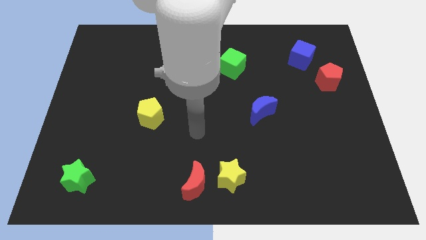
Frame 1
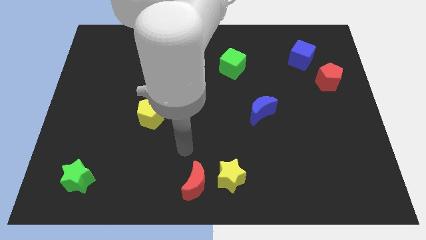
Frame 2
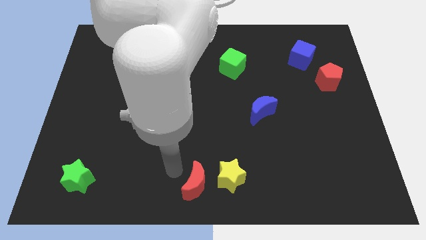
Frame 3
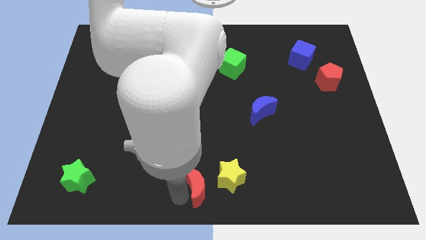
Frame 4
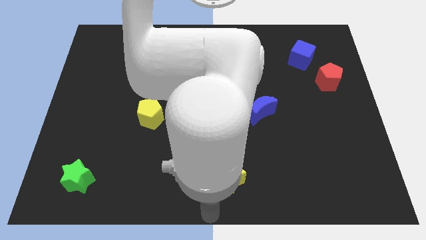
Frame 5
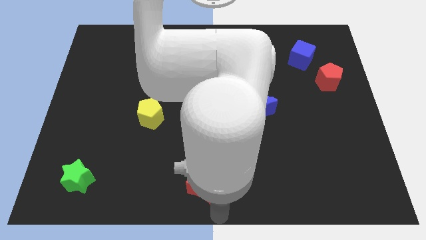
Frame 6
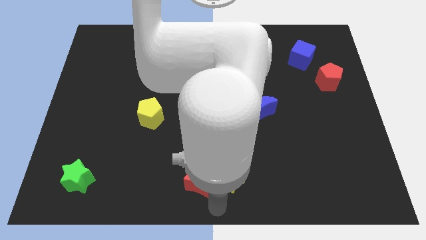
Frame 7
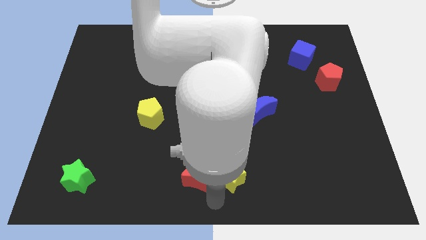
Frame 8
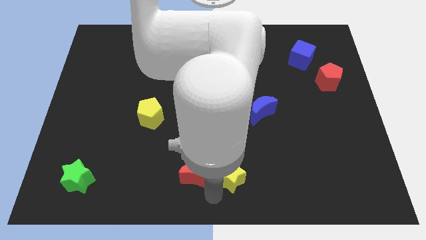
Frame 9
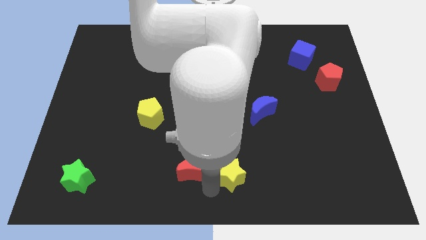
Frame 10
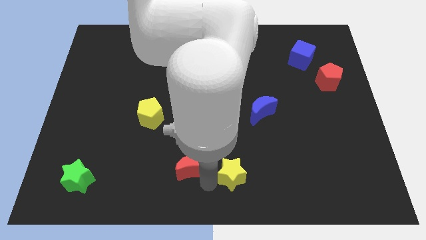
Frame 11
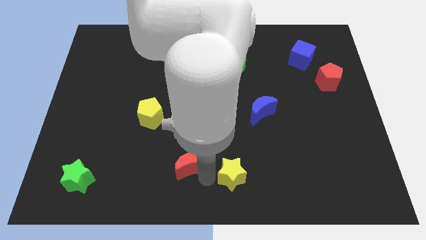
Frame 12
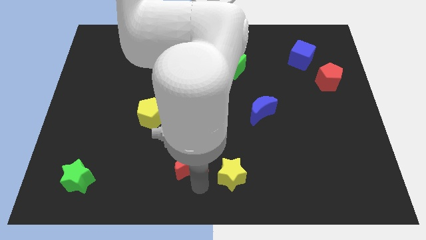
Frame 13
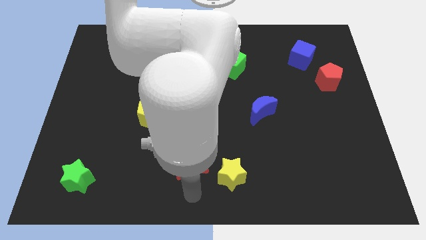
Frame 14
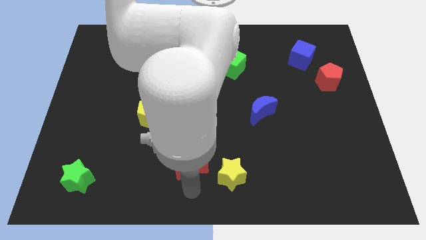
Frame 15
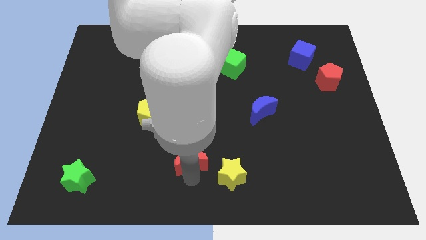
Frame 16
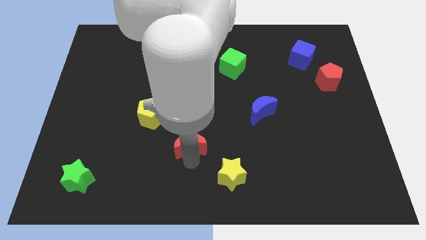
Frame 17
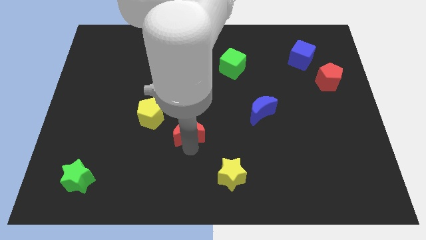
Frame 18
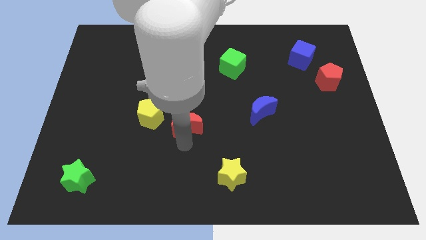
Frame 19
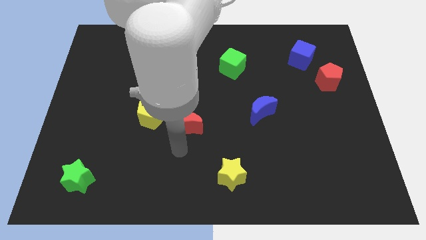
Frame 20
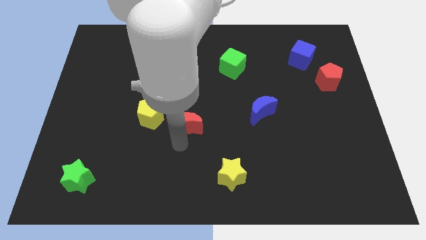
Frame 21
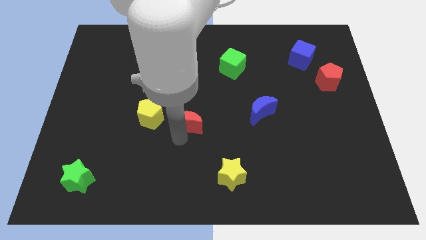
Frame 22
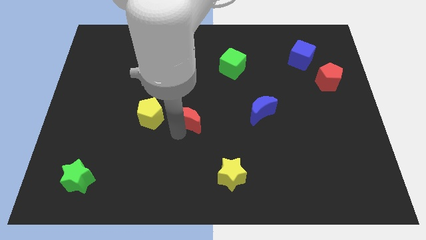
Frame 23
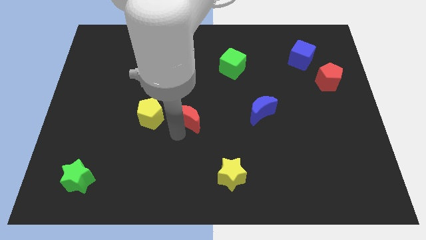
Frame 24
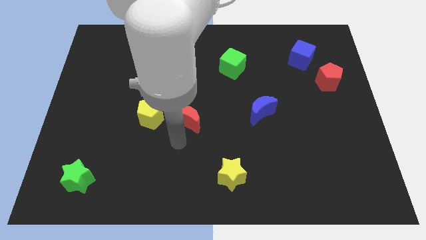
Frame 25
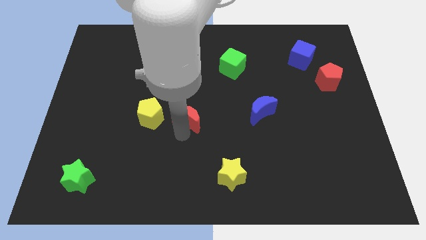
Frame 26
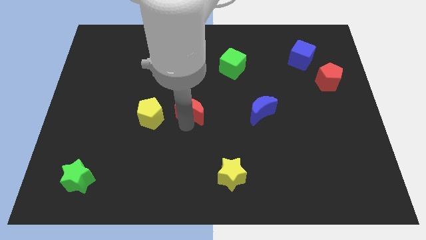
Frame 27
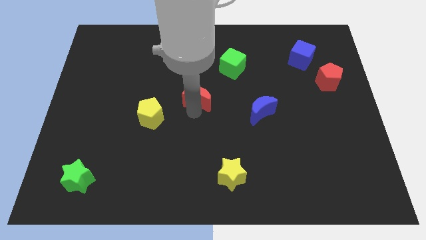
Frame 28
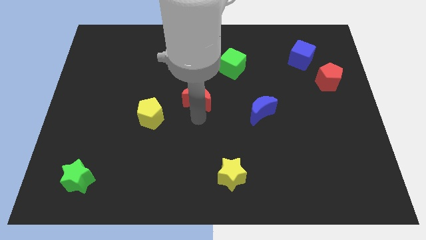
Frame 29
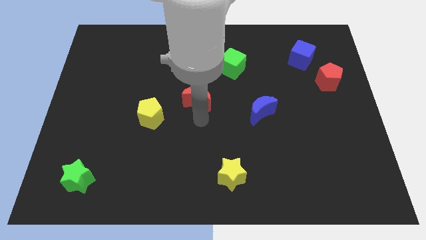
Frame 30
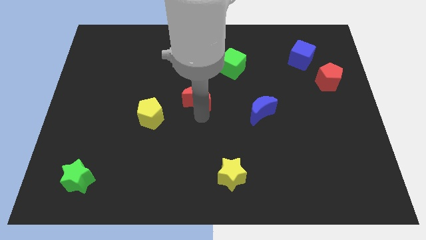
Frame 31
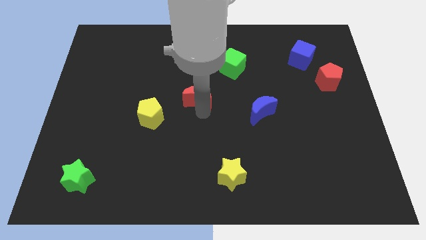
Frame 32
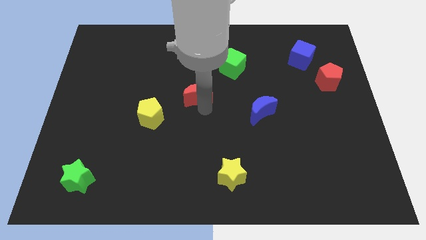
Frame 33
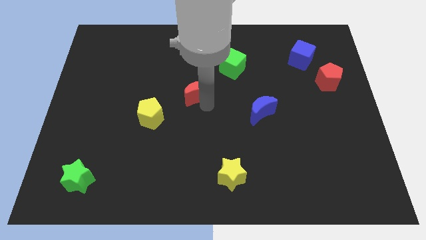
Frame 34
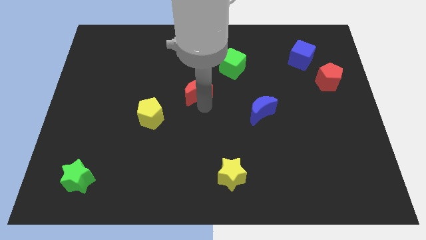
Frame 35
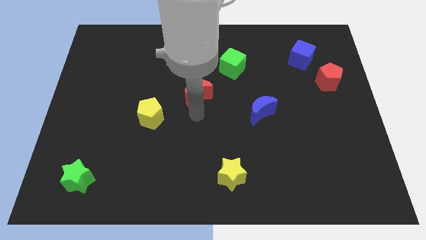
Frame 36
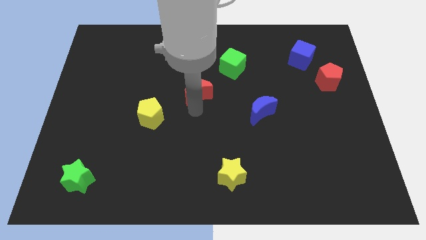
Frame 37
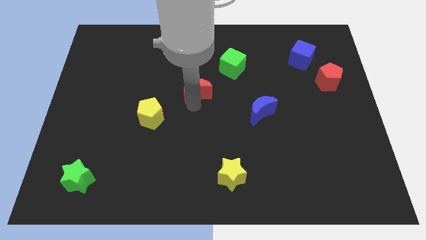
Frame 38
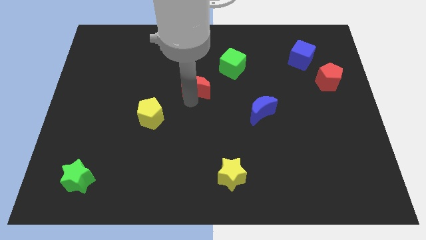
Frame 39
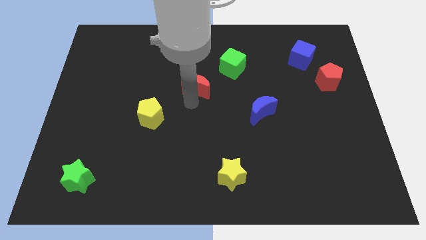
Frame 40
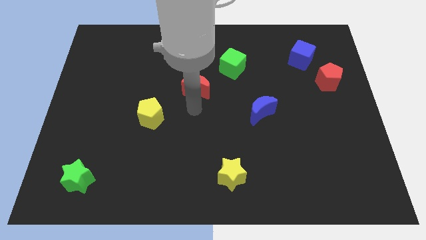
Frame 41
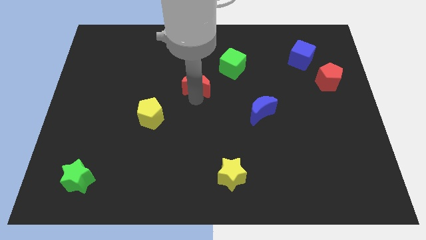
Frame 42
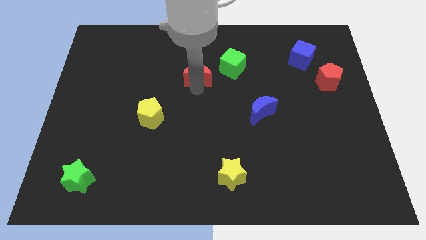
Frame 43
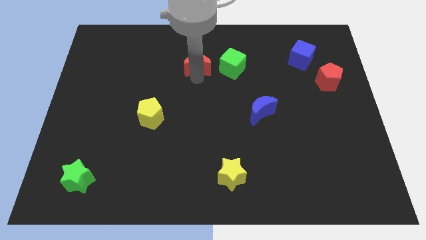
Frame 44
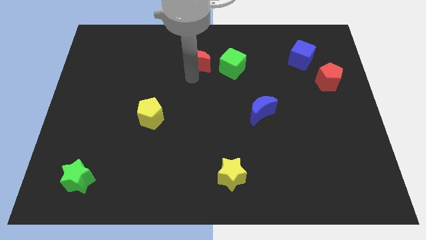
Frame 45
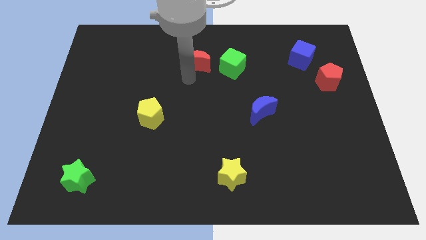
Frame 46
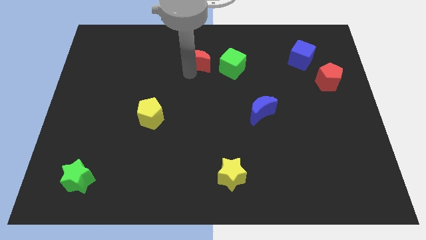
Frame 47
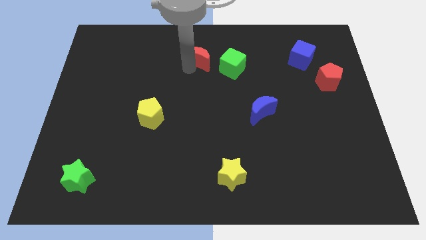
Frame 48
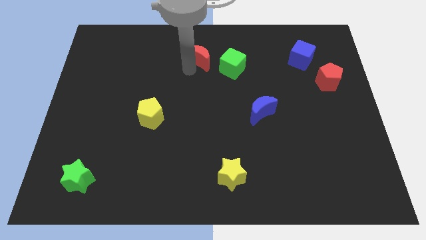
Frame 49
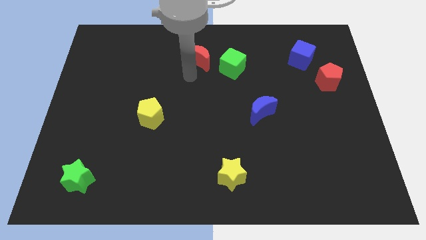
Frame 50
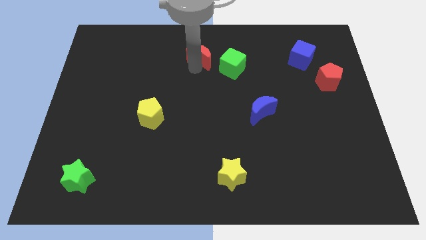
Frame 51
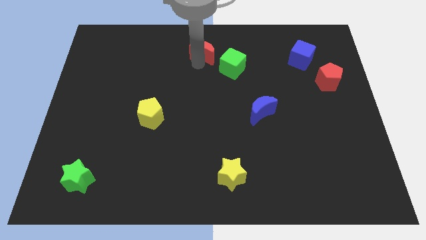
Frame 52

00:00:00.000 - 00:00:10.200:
push the red moon to the top side

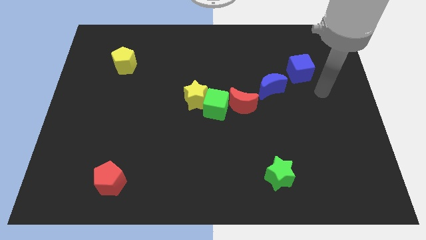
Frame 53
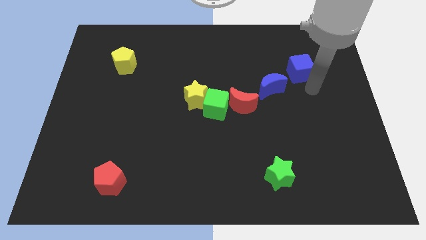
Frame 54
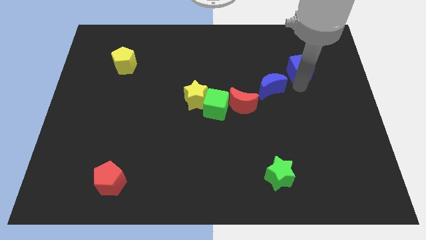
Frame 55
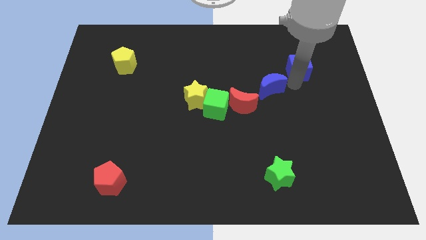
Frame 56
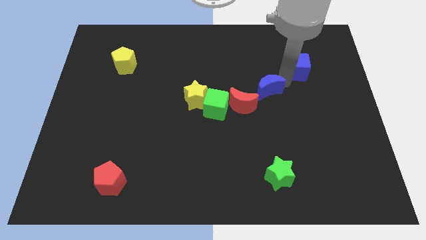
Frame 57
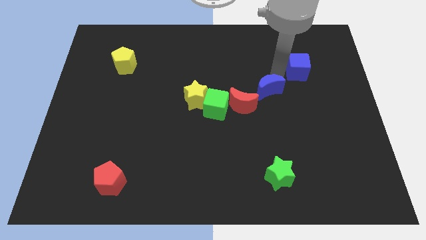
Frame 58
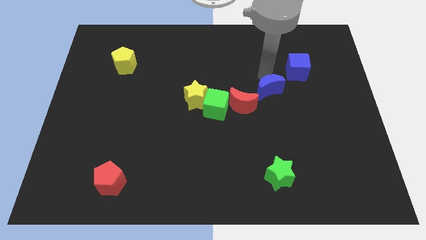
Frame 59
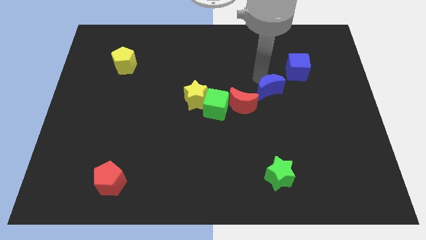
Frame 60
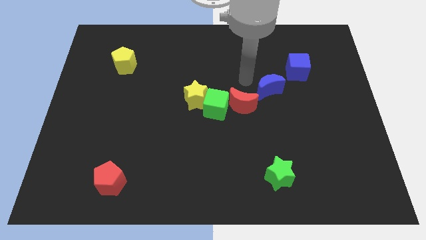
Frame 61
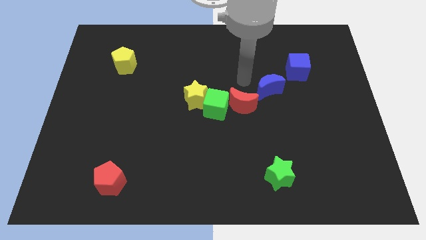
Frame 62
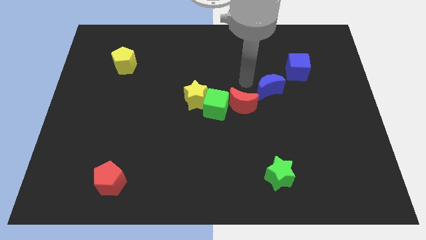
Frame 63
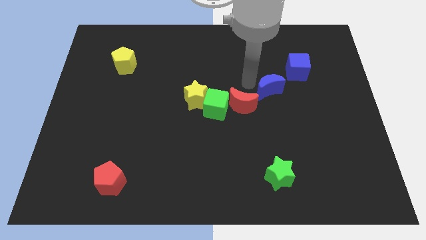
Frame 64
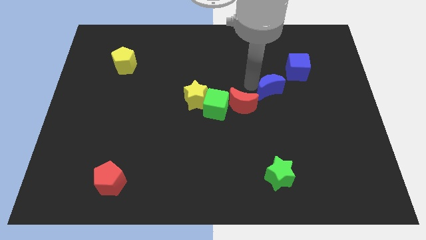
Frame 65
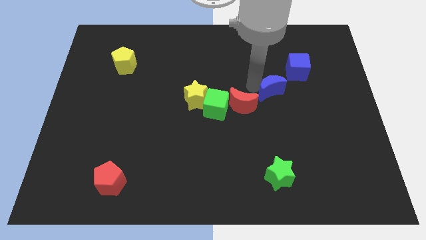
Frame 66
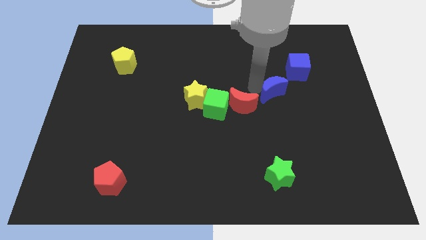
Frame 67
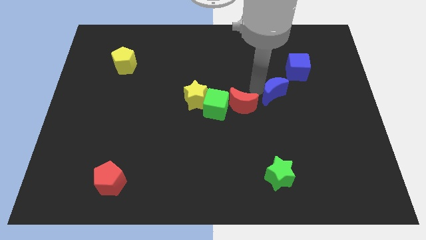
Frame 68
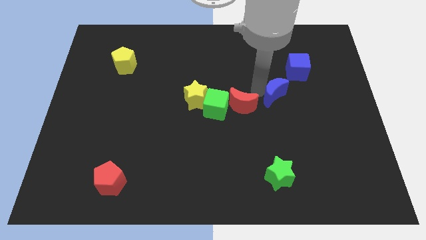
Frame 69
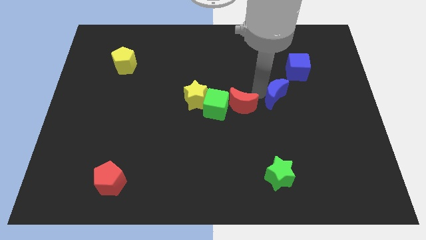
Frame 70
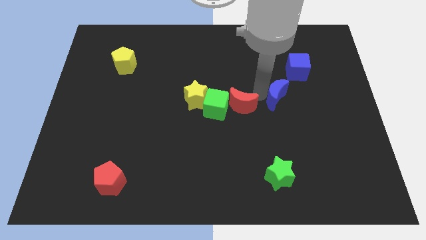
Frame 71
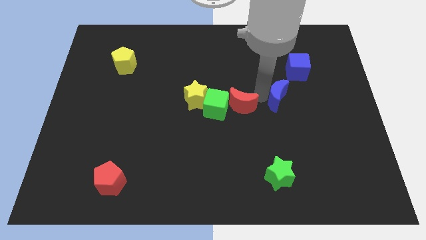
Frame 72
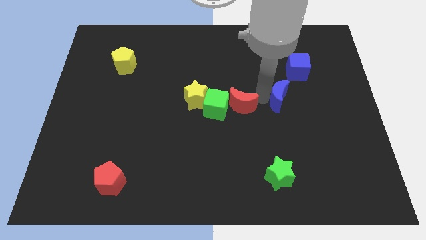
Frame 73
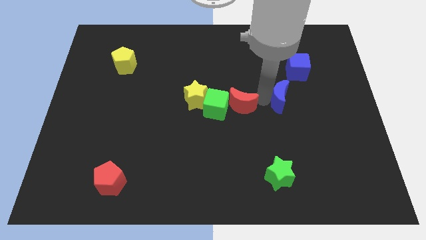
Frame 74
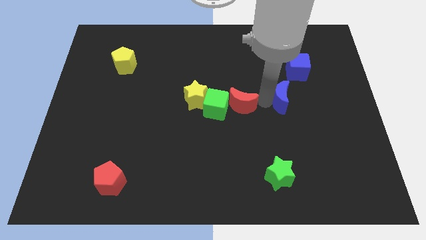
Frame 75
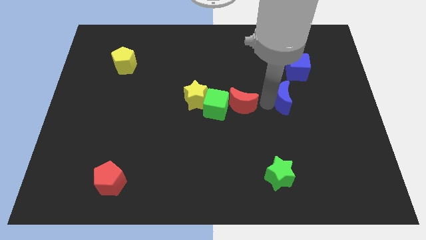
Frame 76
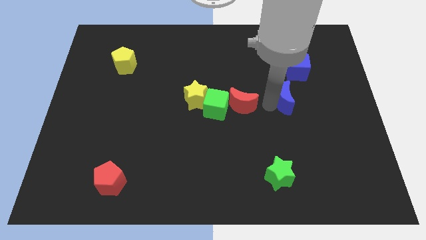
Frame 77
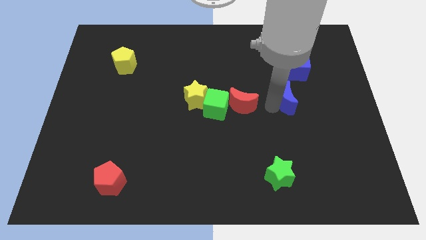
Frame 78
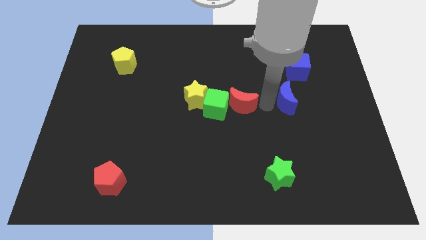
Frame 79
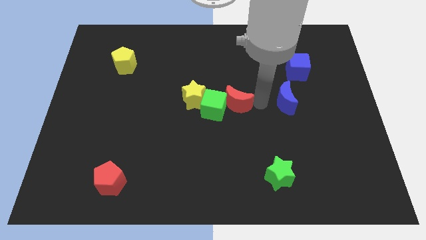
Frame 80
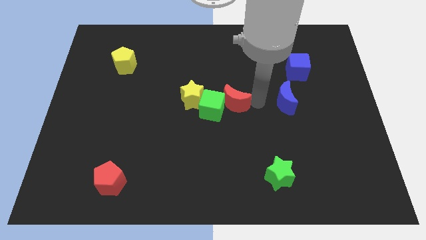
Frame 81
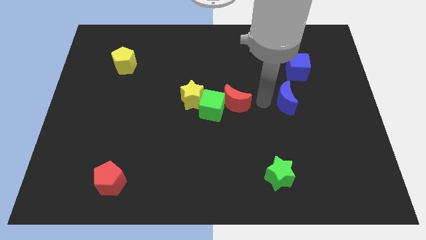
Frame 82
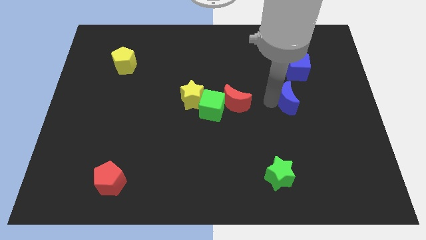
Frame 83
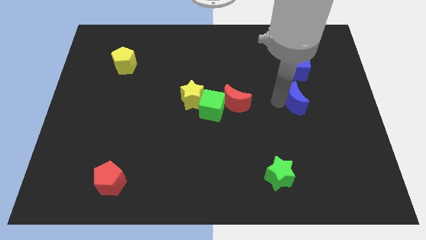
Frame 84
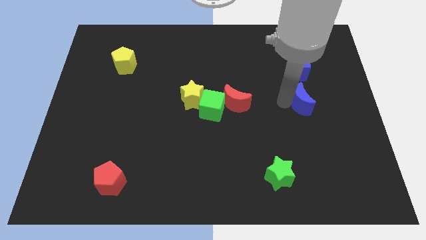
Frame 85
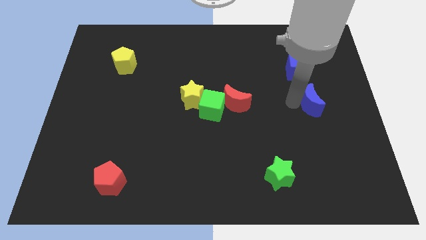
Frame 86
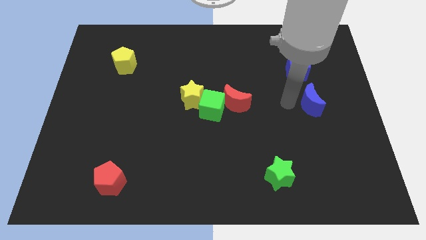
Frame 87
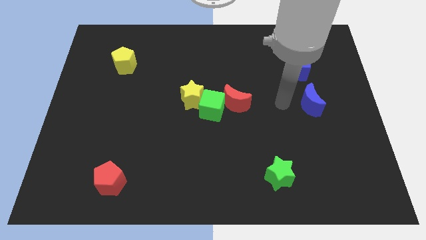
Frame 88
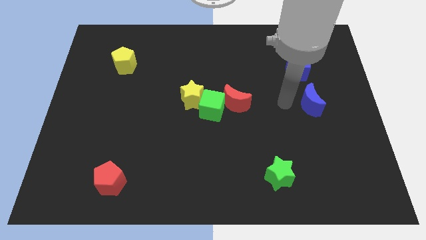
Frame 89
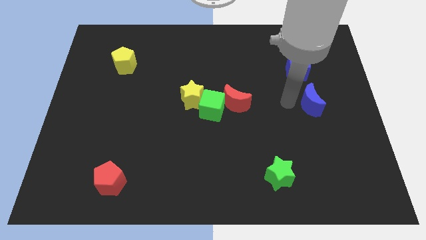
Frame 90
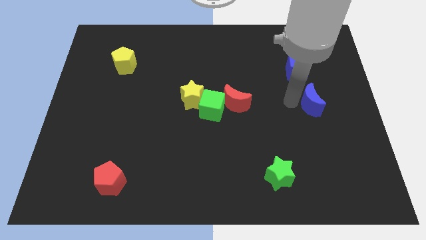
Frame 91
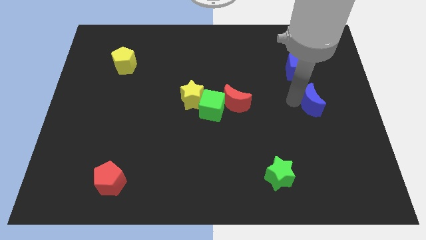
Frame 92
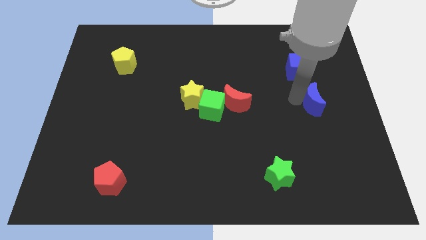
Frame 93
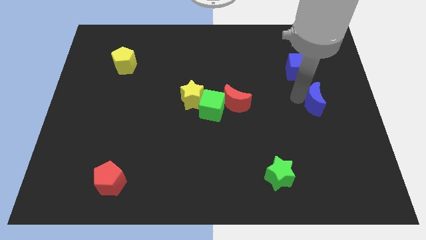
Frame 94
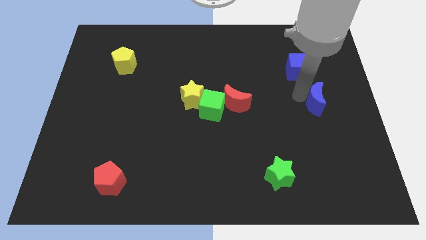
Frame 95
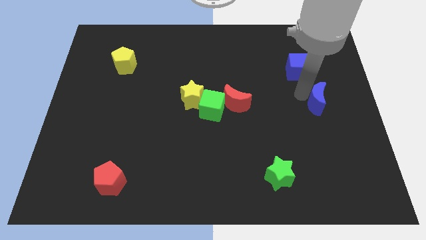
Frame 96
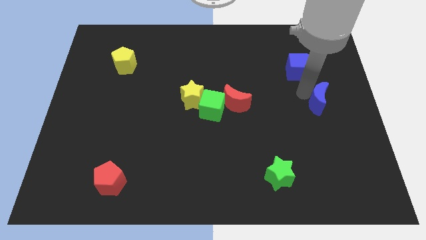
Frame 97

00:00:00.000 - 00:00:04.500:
move the blue moon to the right side
